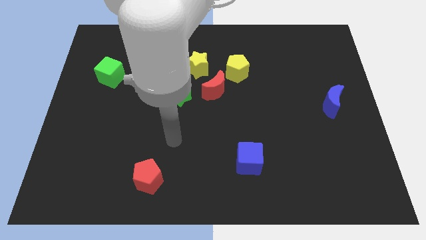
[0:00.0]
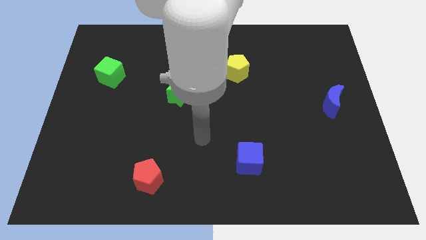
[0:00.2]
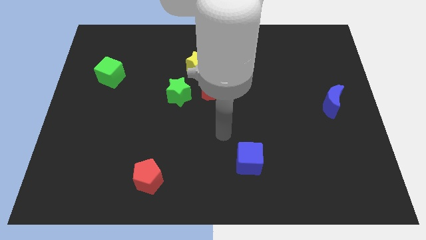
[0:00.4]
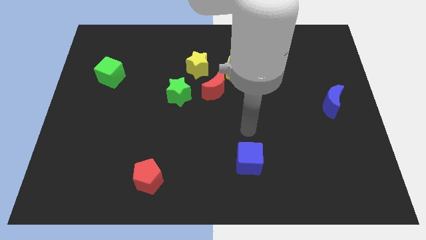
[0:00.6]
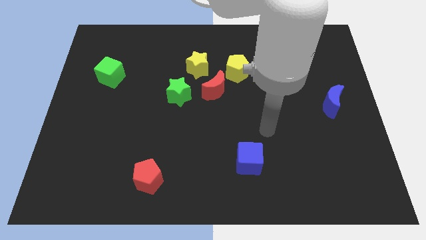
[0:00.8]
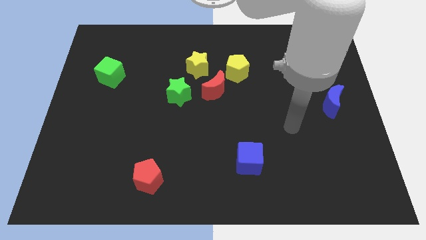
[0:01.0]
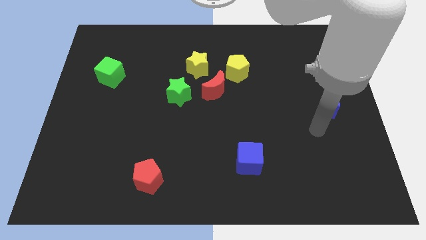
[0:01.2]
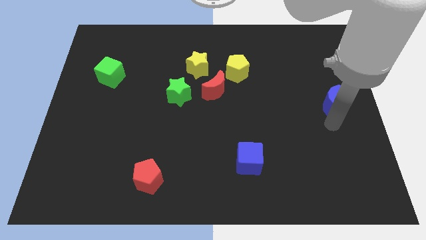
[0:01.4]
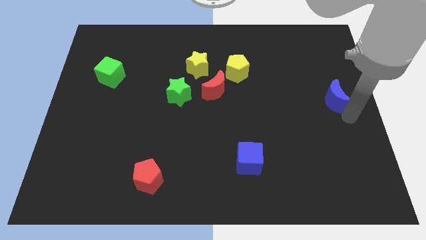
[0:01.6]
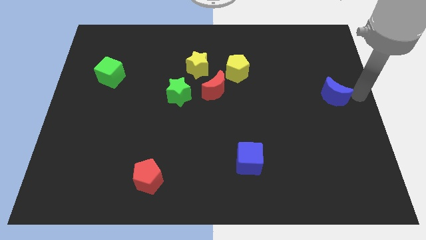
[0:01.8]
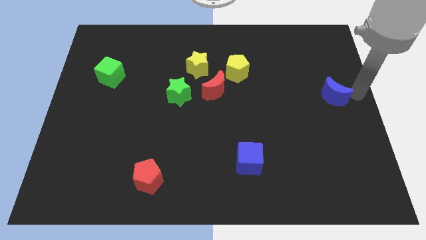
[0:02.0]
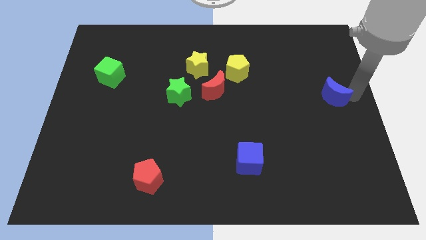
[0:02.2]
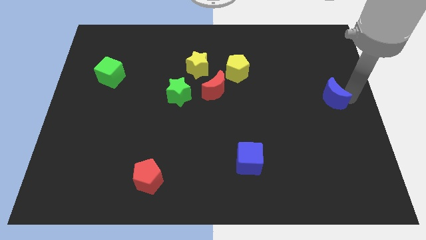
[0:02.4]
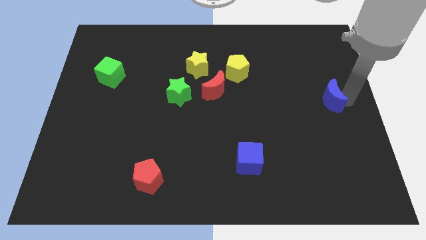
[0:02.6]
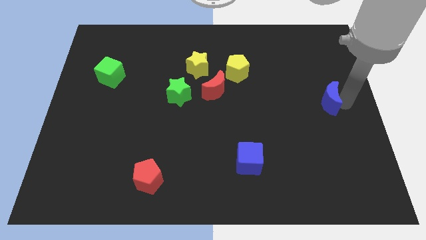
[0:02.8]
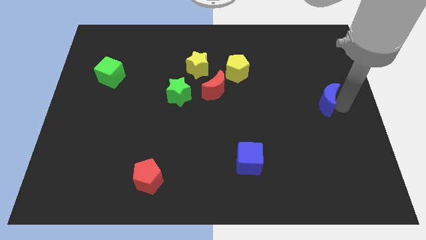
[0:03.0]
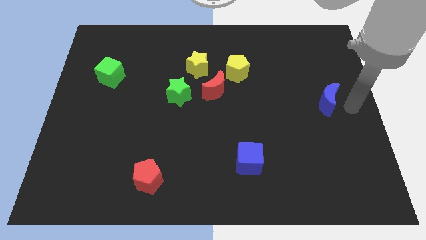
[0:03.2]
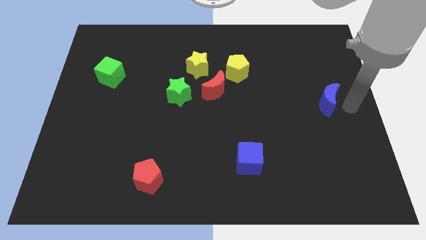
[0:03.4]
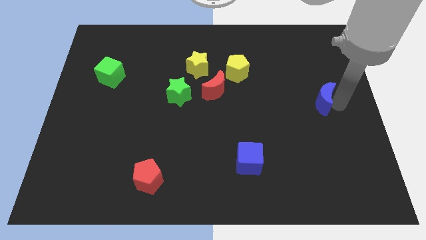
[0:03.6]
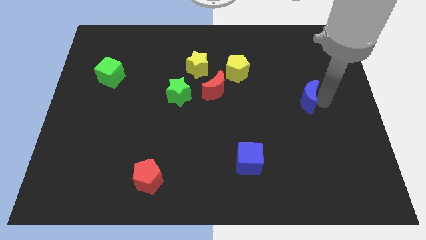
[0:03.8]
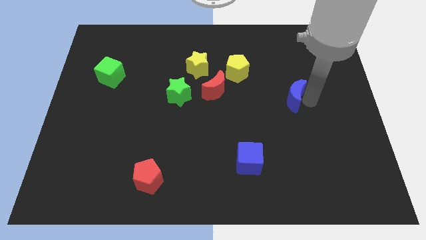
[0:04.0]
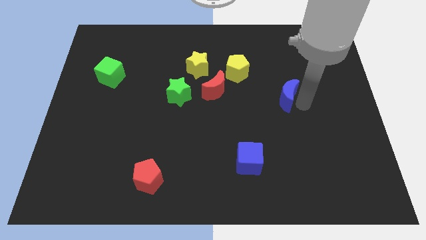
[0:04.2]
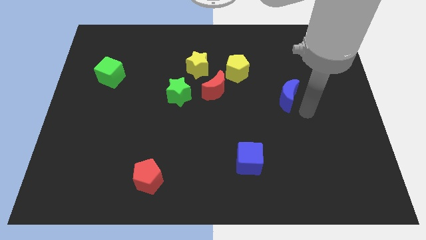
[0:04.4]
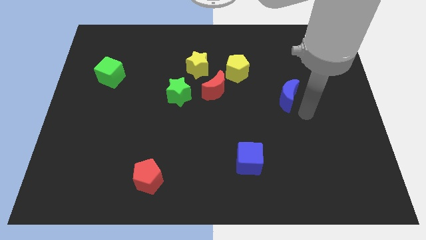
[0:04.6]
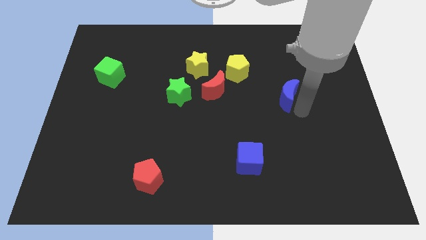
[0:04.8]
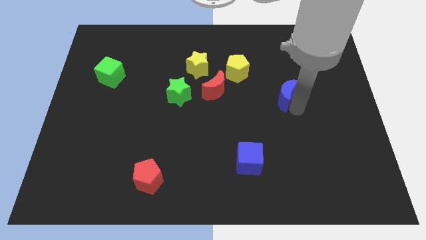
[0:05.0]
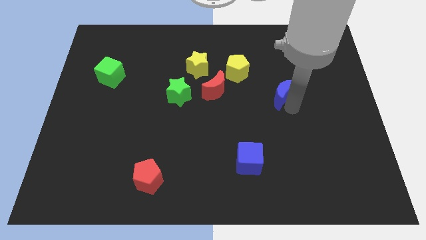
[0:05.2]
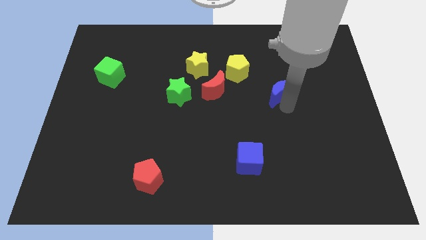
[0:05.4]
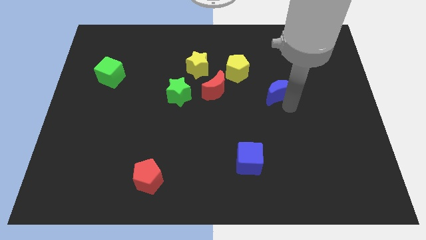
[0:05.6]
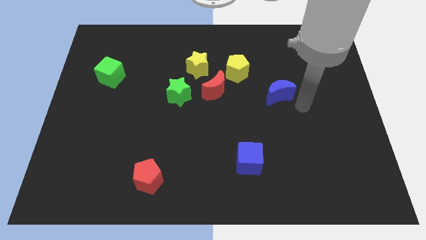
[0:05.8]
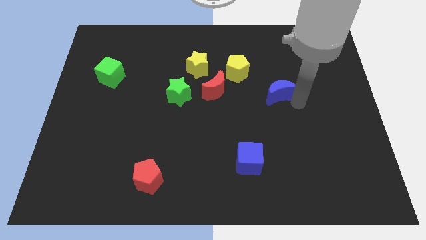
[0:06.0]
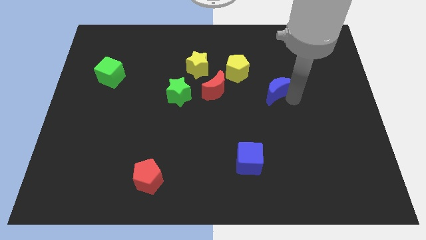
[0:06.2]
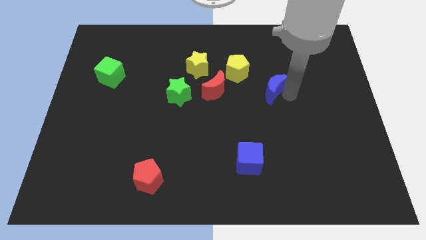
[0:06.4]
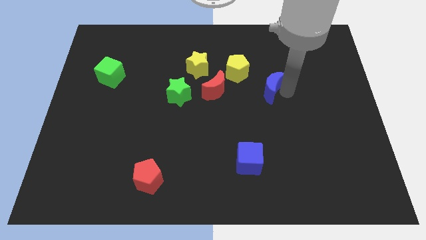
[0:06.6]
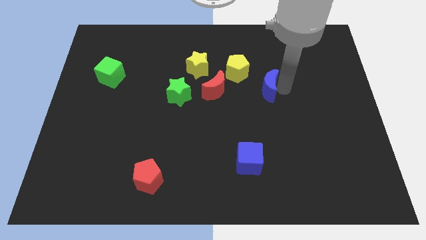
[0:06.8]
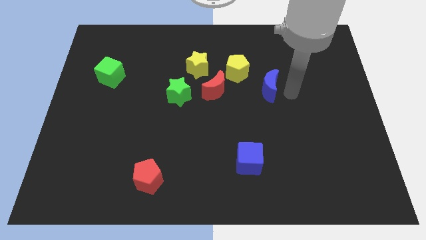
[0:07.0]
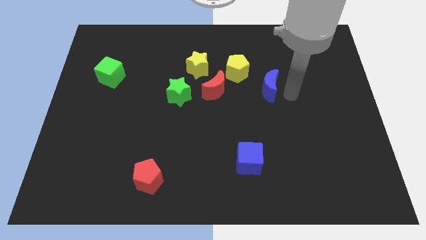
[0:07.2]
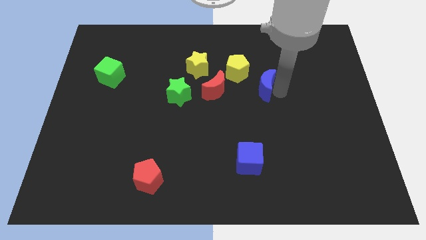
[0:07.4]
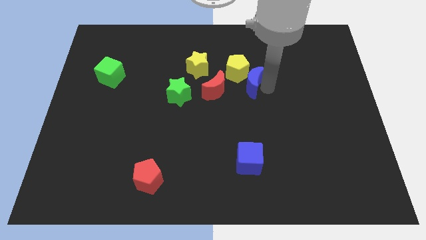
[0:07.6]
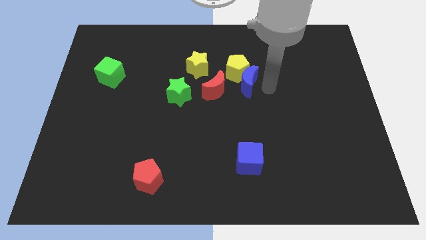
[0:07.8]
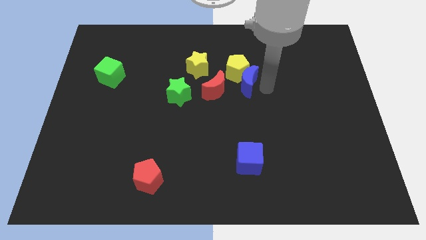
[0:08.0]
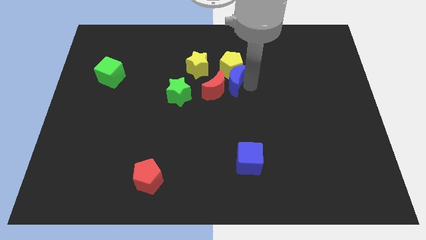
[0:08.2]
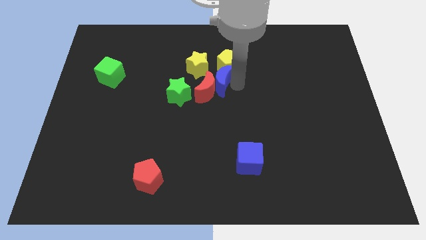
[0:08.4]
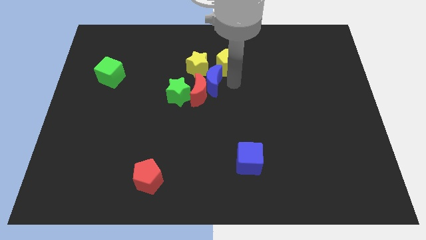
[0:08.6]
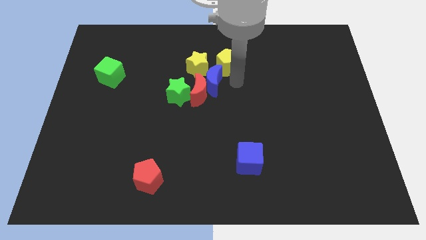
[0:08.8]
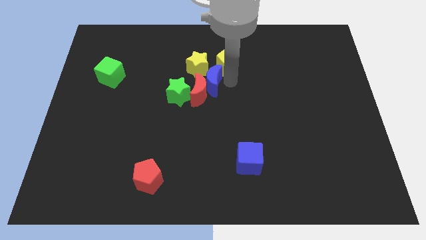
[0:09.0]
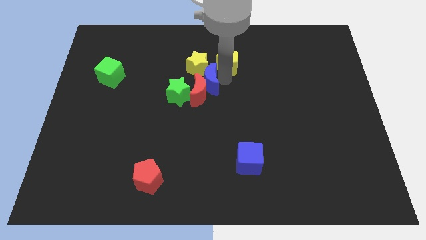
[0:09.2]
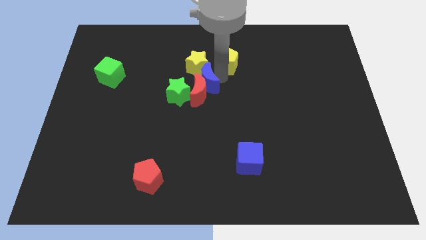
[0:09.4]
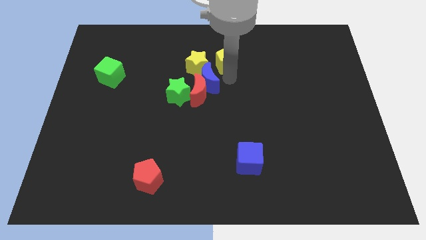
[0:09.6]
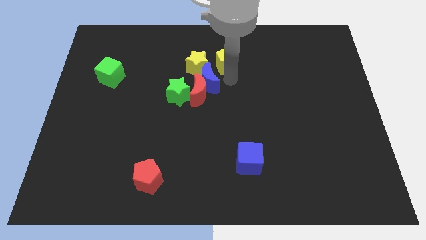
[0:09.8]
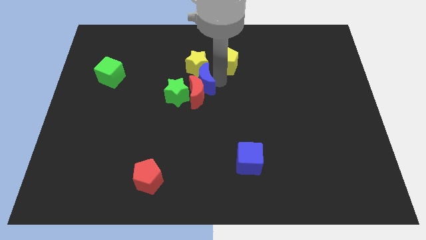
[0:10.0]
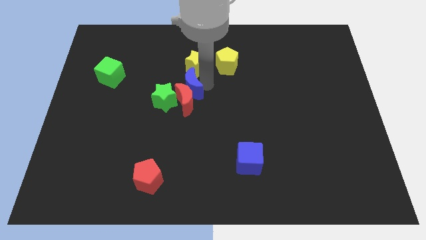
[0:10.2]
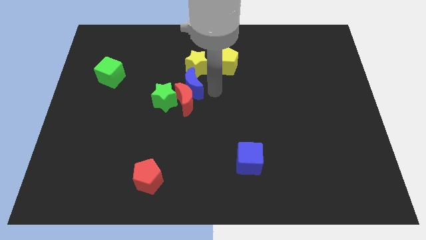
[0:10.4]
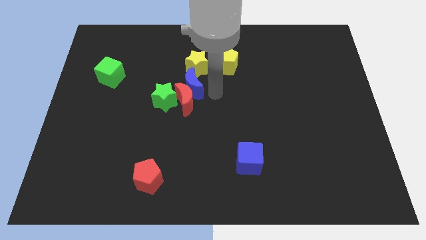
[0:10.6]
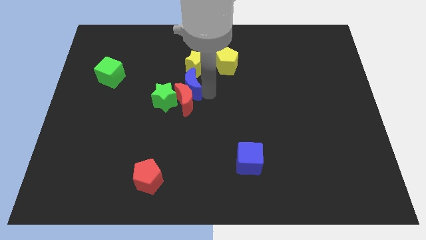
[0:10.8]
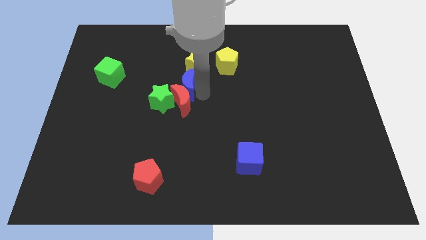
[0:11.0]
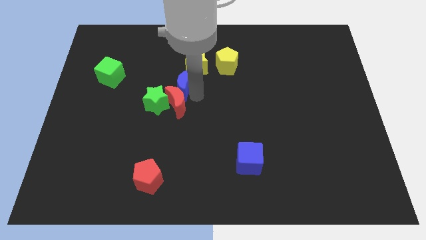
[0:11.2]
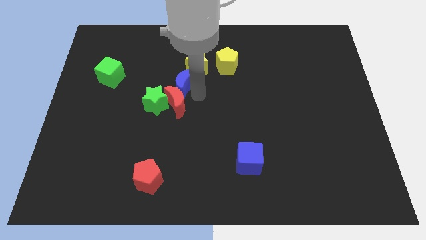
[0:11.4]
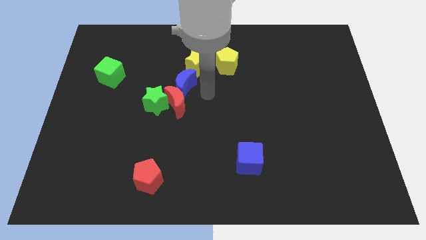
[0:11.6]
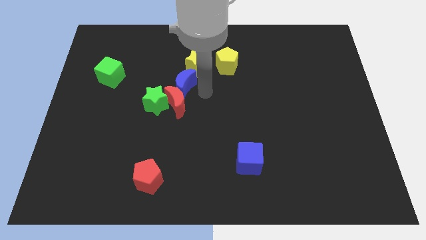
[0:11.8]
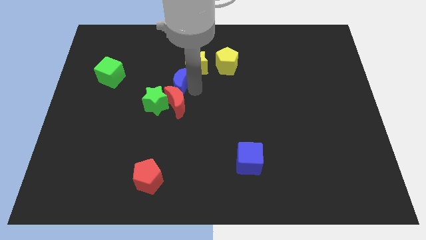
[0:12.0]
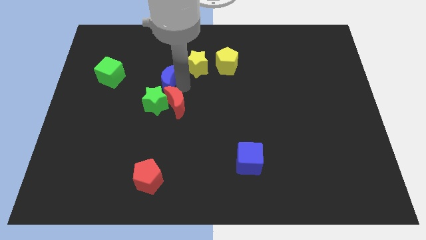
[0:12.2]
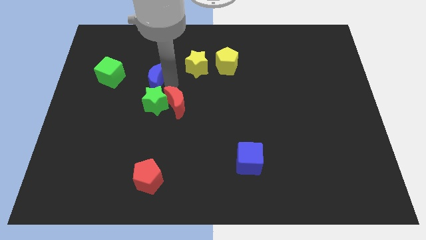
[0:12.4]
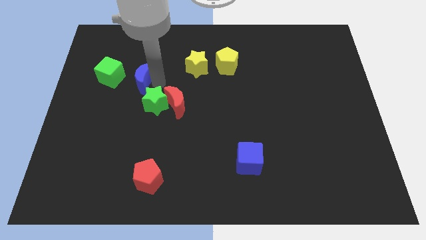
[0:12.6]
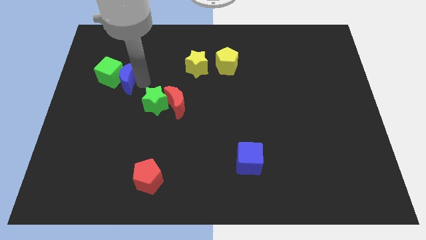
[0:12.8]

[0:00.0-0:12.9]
push the blue moon next to the green cube

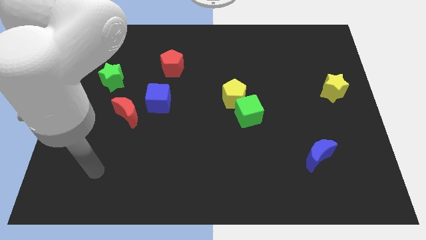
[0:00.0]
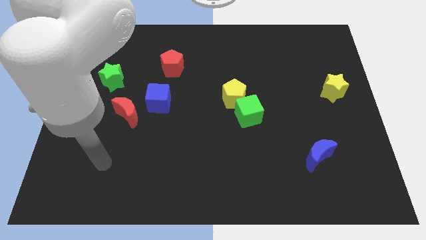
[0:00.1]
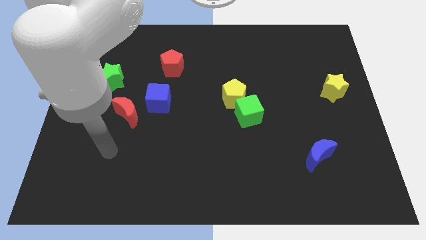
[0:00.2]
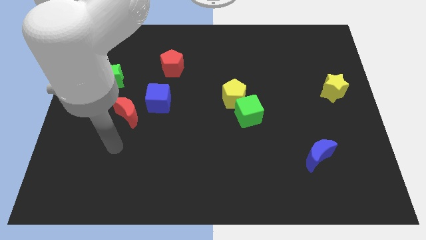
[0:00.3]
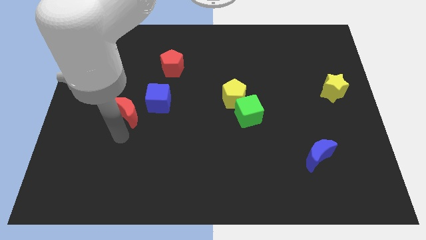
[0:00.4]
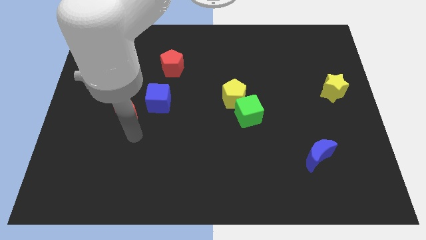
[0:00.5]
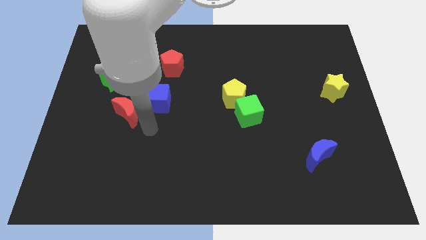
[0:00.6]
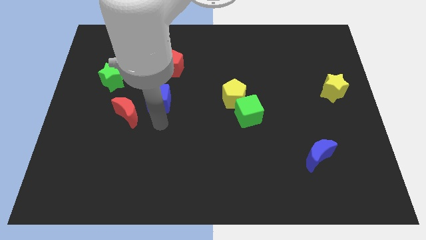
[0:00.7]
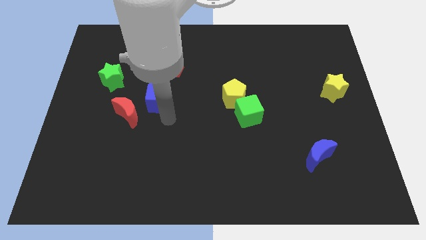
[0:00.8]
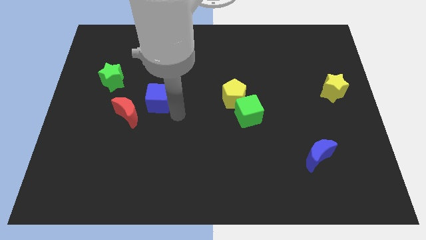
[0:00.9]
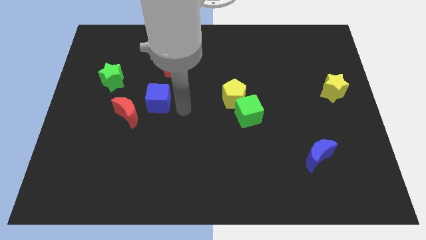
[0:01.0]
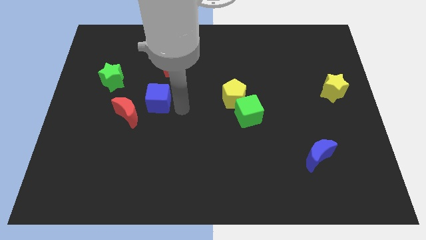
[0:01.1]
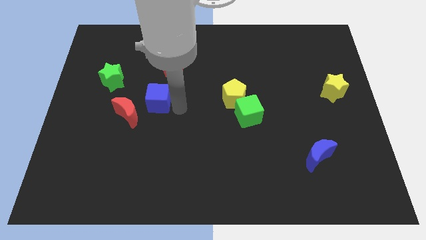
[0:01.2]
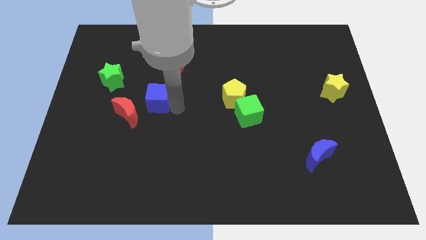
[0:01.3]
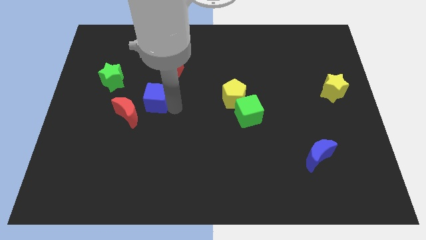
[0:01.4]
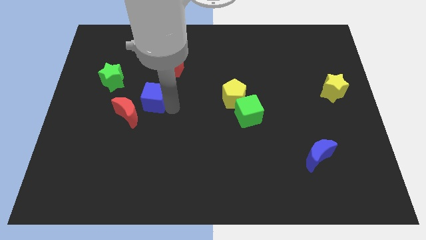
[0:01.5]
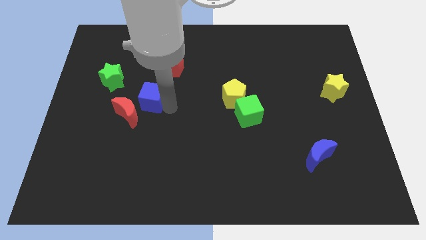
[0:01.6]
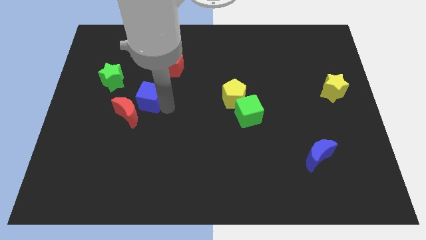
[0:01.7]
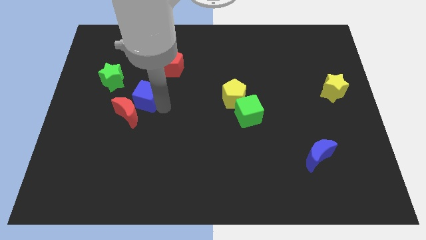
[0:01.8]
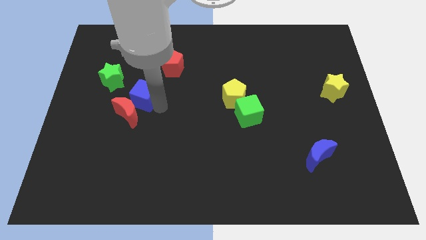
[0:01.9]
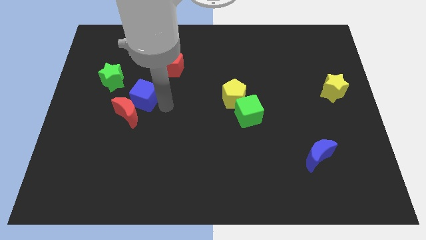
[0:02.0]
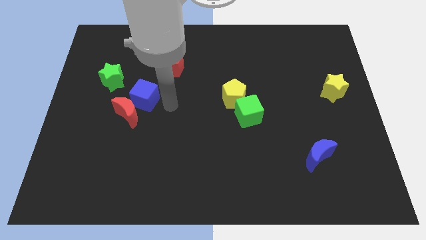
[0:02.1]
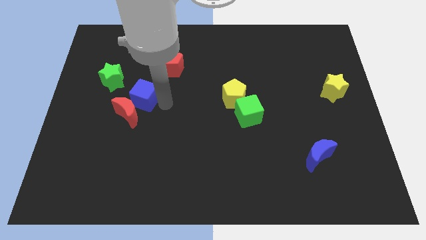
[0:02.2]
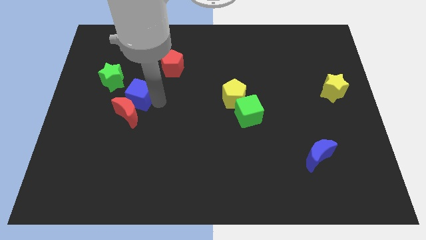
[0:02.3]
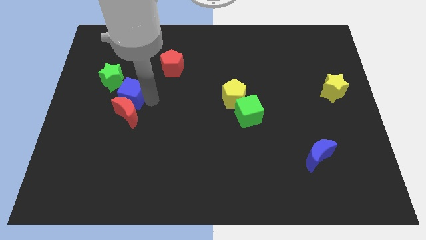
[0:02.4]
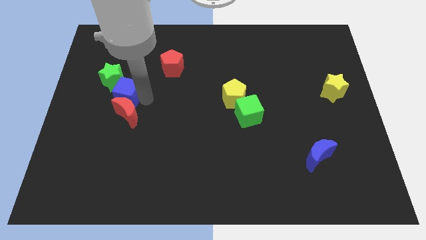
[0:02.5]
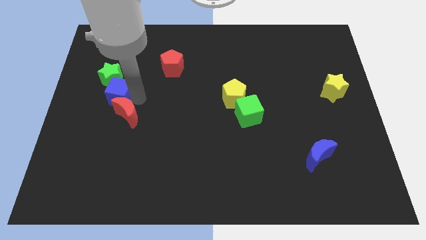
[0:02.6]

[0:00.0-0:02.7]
put the blue cube next to the green star
